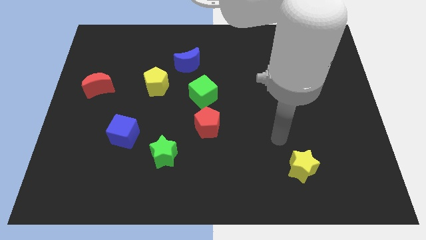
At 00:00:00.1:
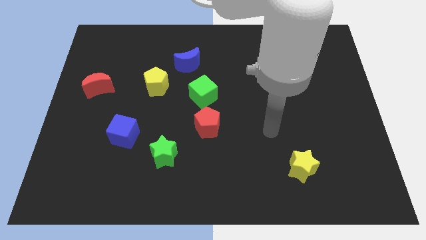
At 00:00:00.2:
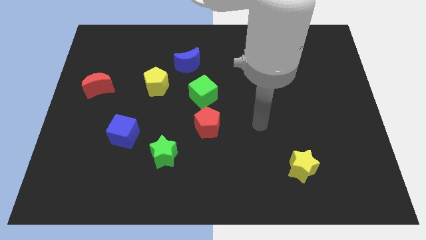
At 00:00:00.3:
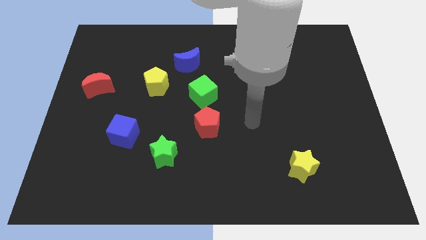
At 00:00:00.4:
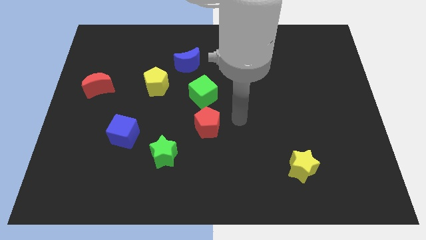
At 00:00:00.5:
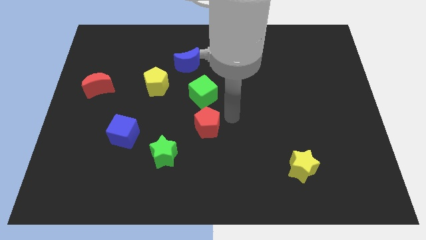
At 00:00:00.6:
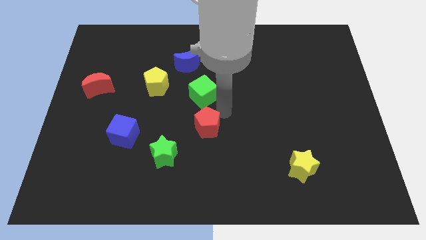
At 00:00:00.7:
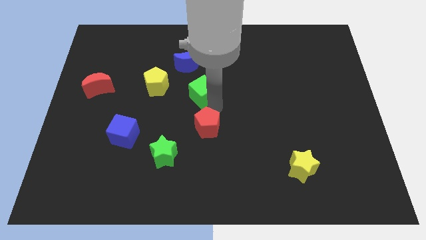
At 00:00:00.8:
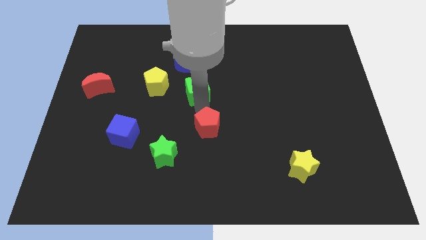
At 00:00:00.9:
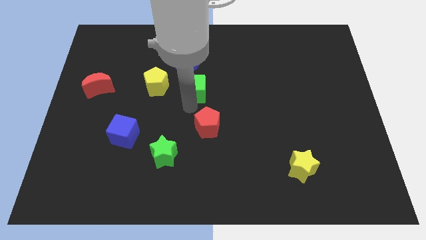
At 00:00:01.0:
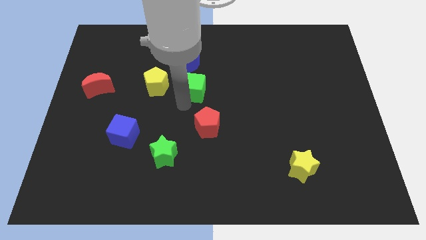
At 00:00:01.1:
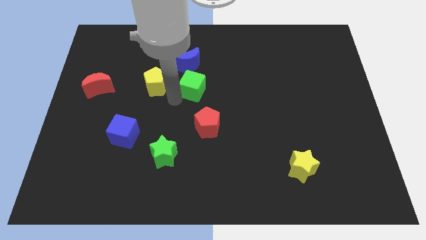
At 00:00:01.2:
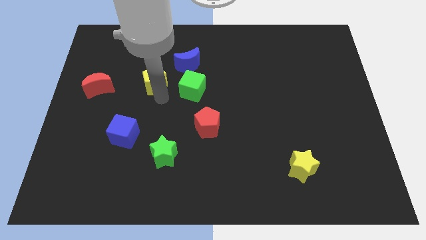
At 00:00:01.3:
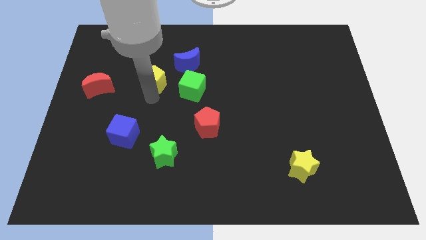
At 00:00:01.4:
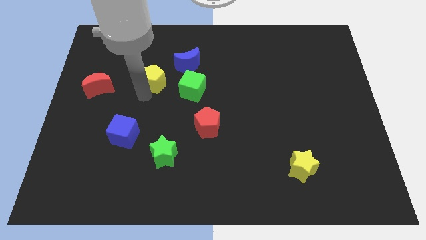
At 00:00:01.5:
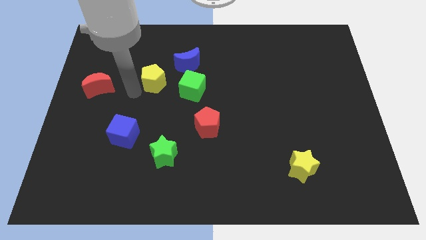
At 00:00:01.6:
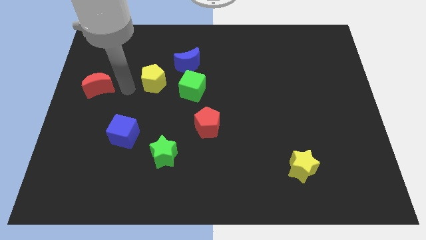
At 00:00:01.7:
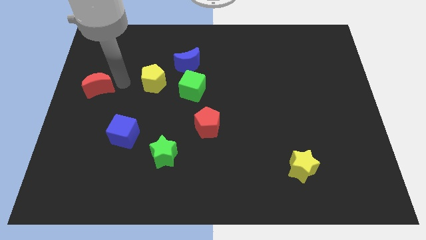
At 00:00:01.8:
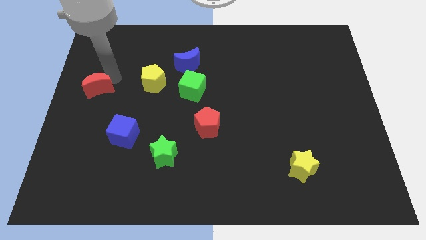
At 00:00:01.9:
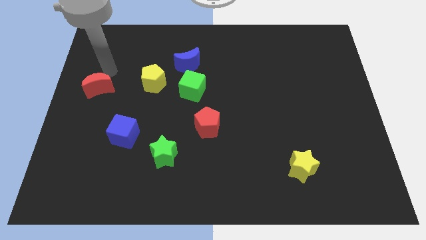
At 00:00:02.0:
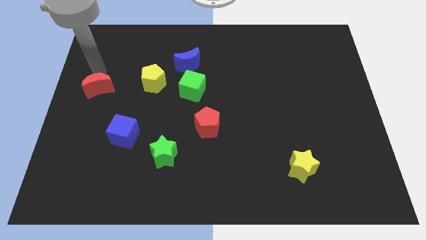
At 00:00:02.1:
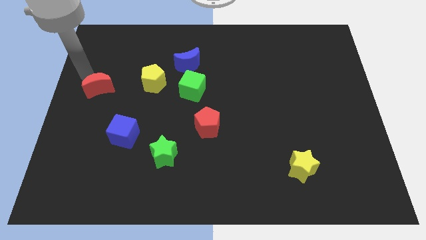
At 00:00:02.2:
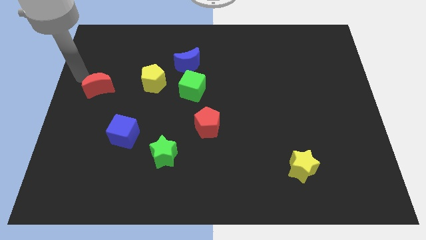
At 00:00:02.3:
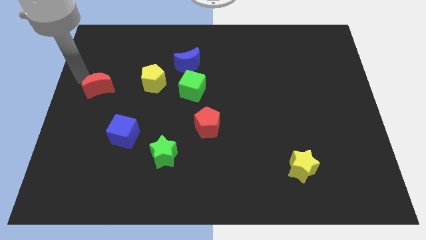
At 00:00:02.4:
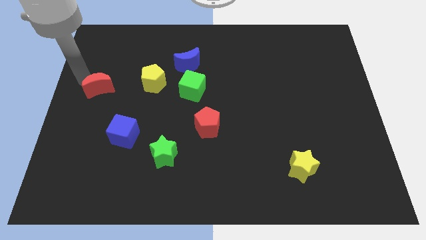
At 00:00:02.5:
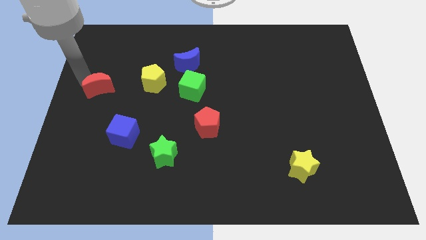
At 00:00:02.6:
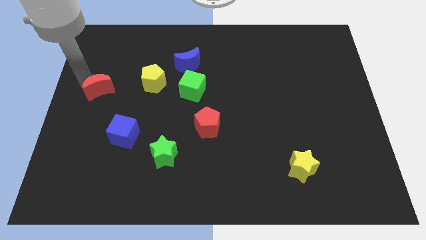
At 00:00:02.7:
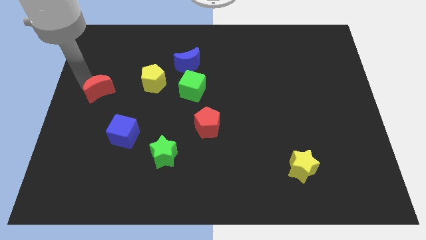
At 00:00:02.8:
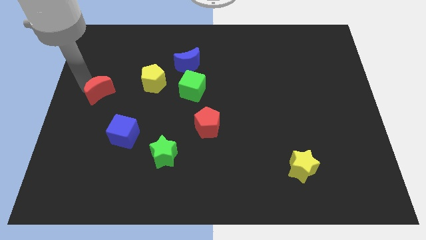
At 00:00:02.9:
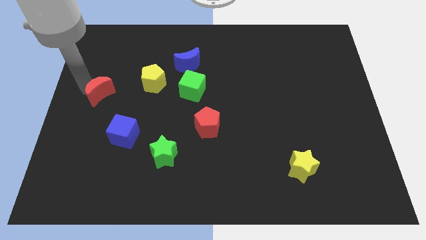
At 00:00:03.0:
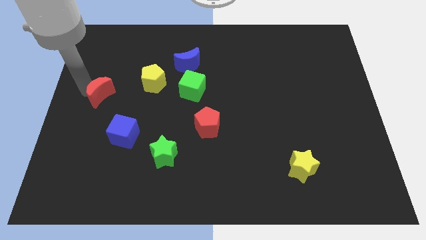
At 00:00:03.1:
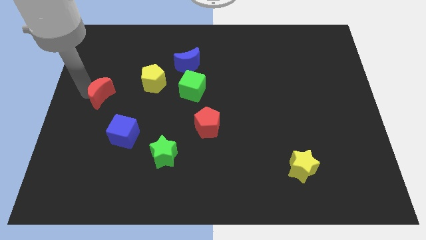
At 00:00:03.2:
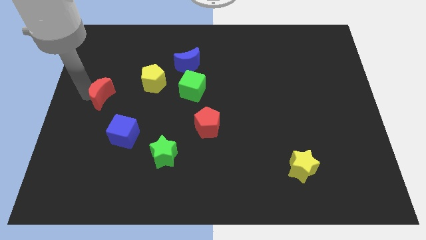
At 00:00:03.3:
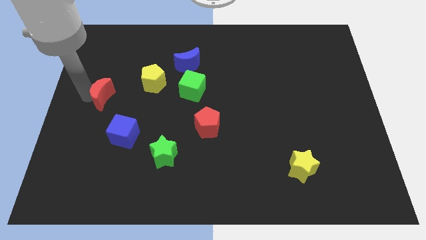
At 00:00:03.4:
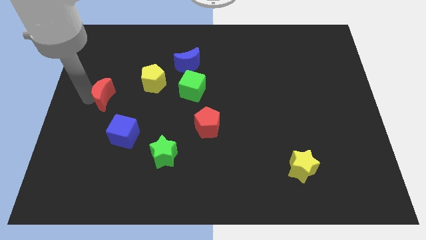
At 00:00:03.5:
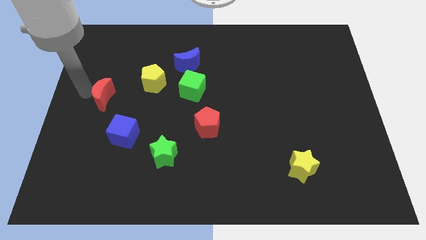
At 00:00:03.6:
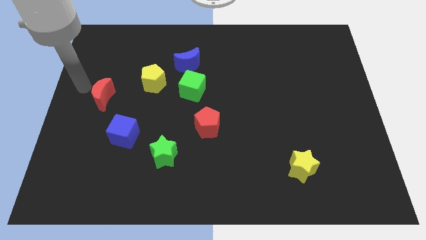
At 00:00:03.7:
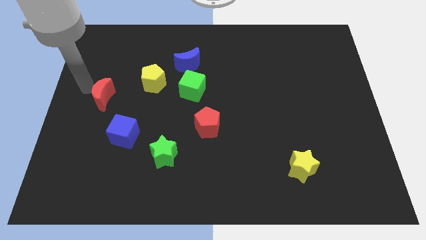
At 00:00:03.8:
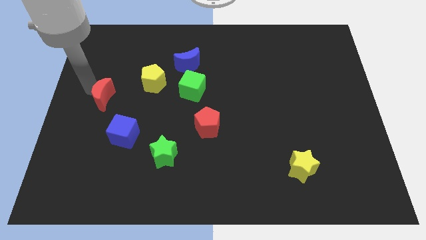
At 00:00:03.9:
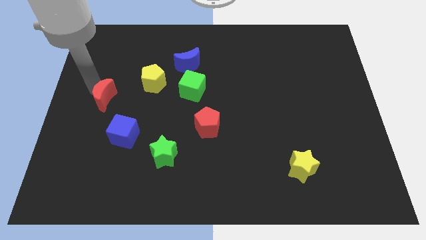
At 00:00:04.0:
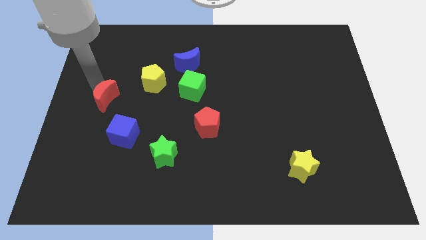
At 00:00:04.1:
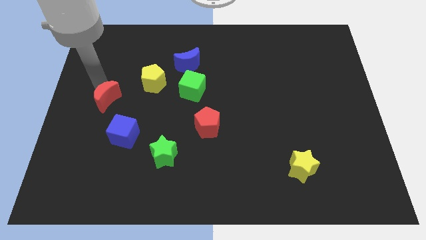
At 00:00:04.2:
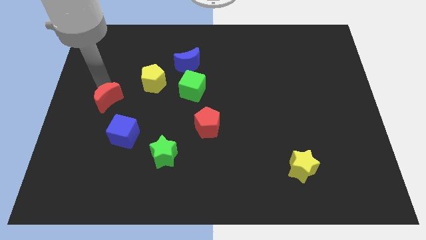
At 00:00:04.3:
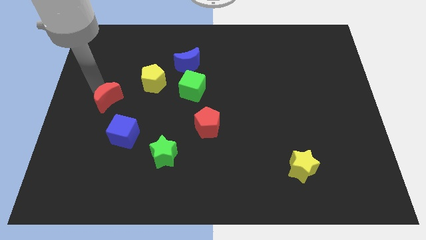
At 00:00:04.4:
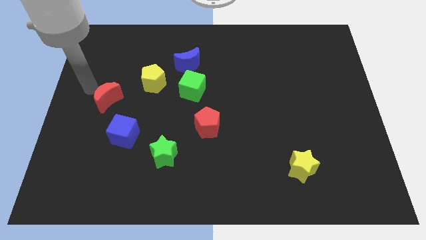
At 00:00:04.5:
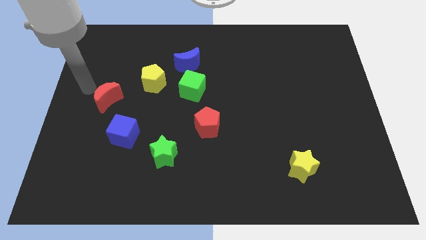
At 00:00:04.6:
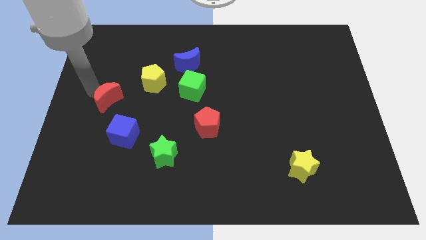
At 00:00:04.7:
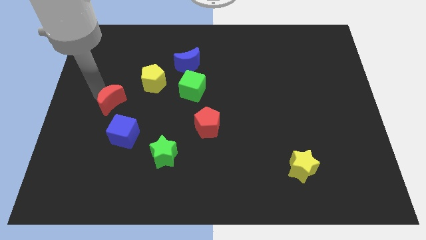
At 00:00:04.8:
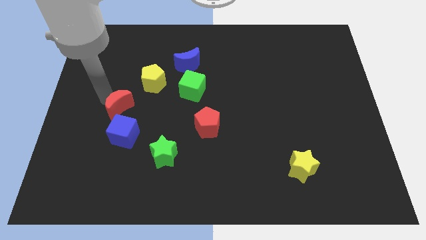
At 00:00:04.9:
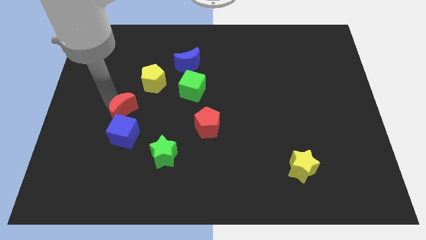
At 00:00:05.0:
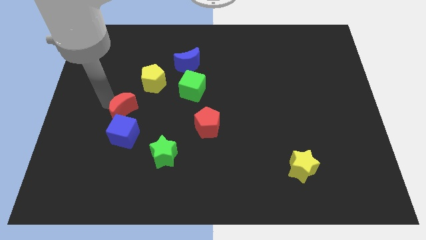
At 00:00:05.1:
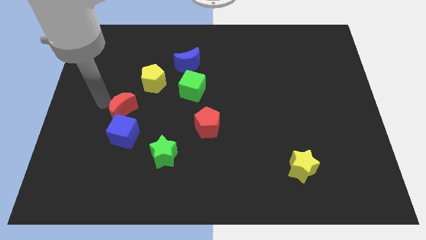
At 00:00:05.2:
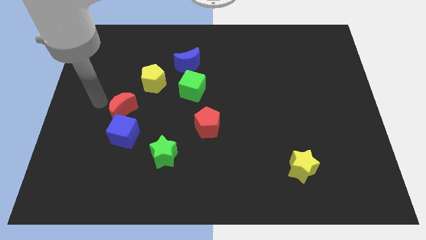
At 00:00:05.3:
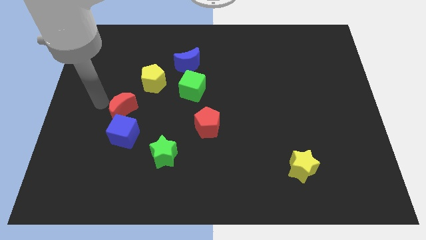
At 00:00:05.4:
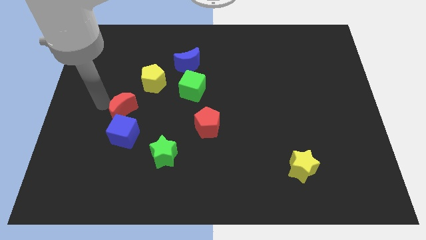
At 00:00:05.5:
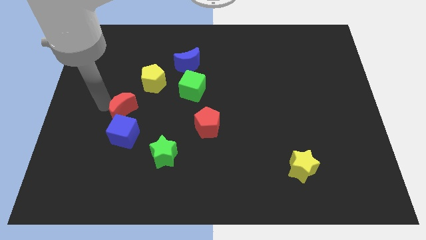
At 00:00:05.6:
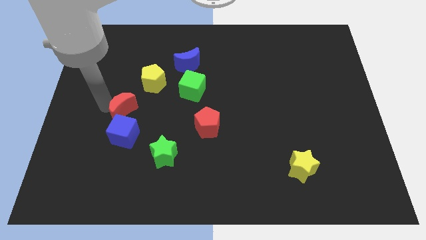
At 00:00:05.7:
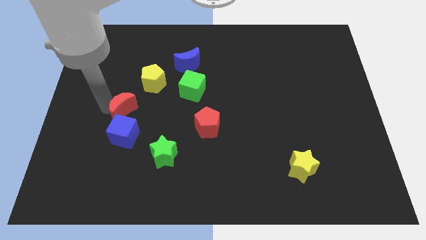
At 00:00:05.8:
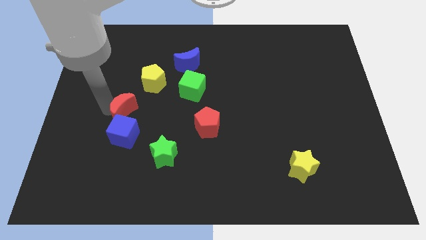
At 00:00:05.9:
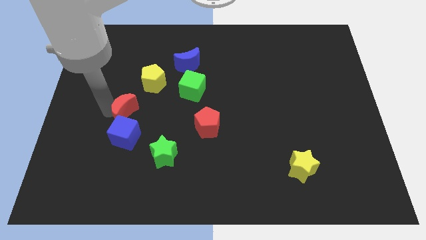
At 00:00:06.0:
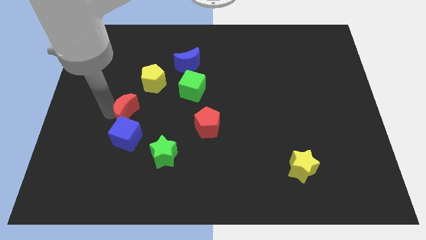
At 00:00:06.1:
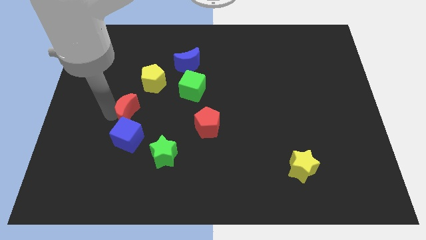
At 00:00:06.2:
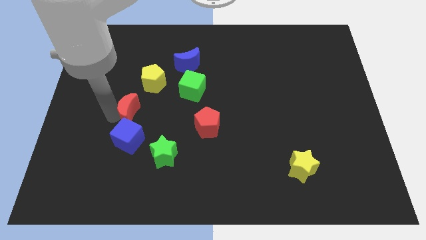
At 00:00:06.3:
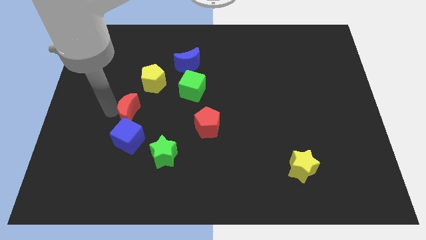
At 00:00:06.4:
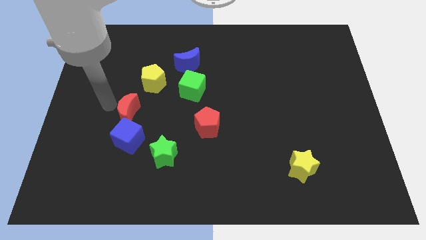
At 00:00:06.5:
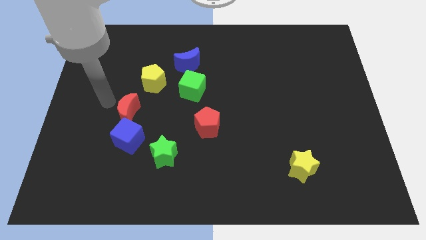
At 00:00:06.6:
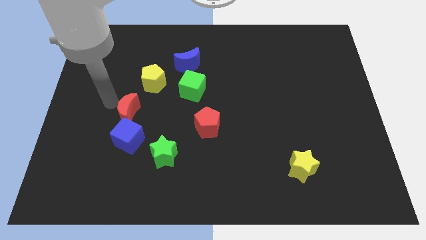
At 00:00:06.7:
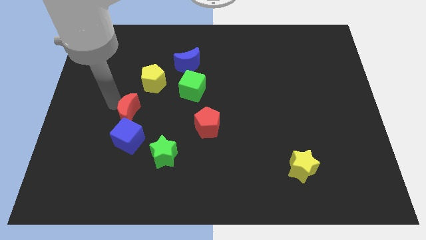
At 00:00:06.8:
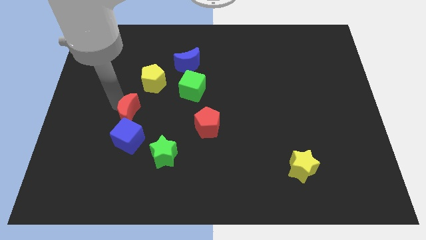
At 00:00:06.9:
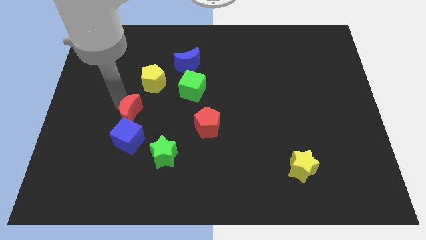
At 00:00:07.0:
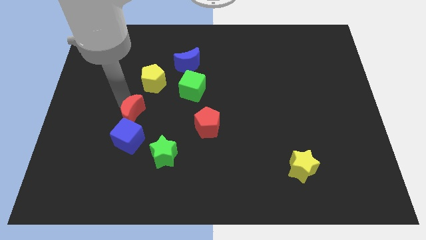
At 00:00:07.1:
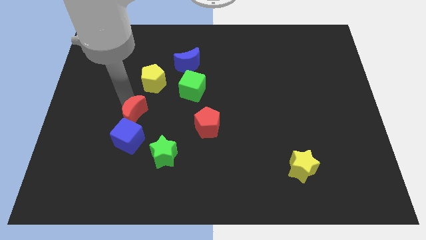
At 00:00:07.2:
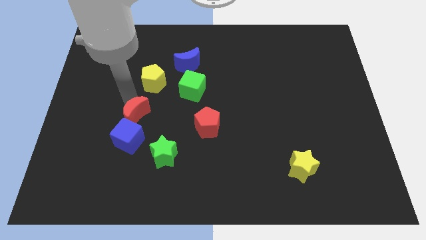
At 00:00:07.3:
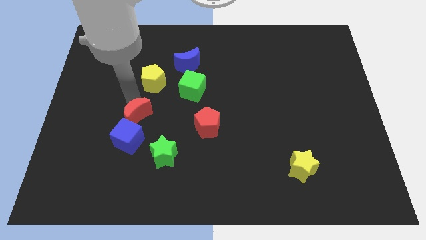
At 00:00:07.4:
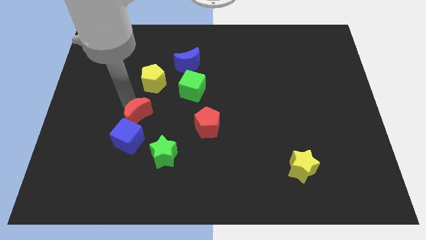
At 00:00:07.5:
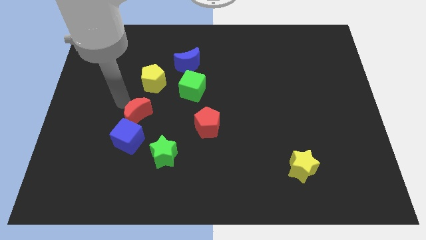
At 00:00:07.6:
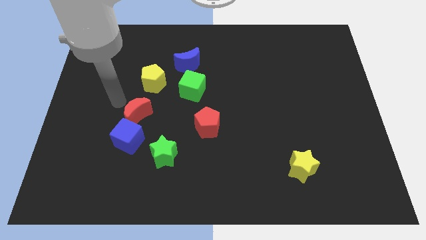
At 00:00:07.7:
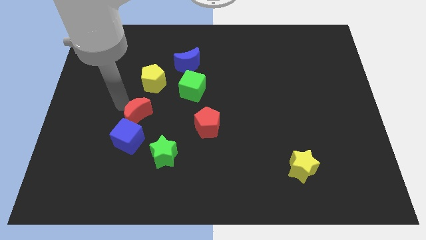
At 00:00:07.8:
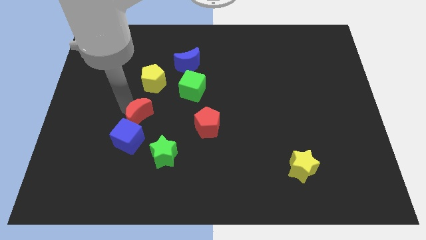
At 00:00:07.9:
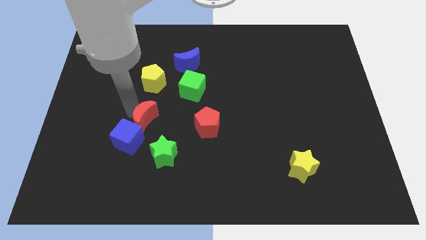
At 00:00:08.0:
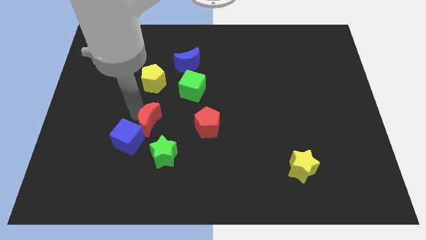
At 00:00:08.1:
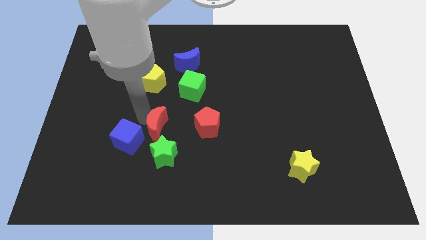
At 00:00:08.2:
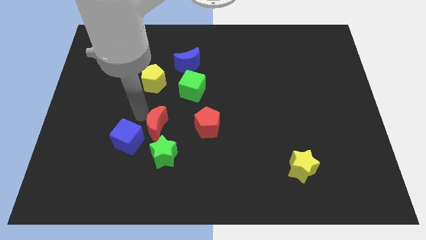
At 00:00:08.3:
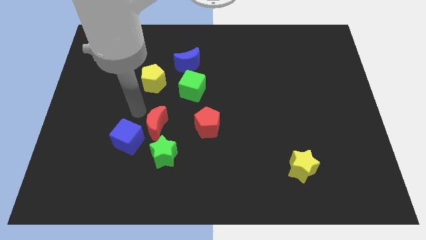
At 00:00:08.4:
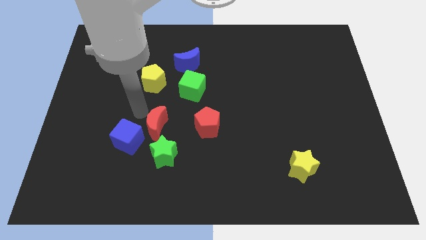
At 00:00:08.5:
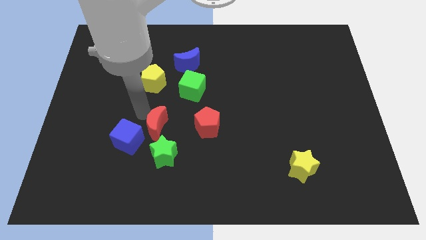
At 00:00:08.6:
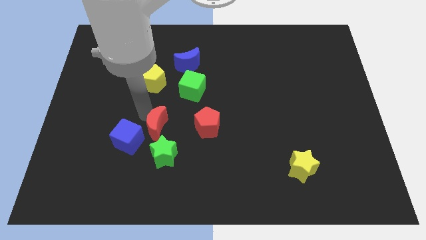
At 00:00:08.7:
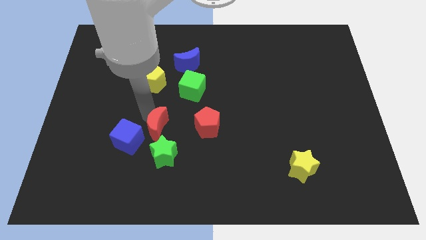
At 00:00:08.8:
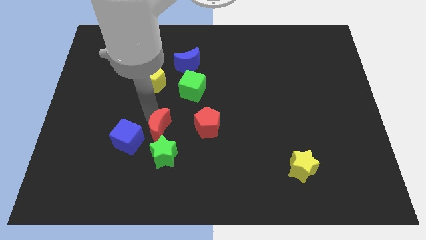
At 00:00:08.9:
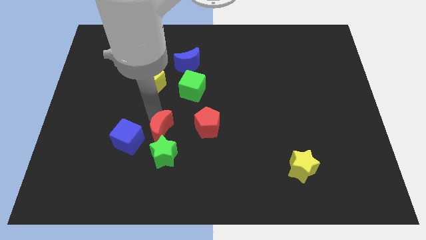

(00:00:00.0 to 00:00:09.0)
slide the red moon downwards and then right
